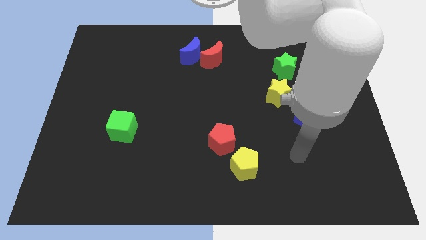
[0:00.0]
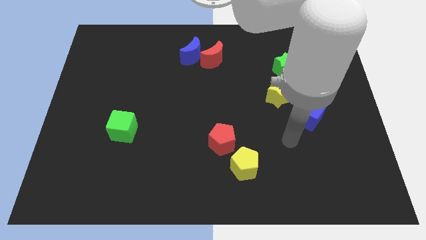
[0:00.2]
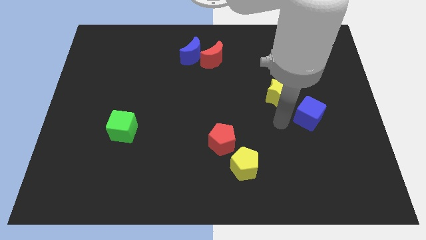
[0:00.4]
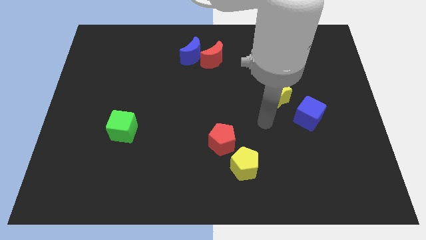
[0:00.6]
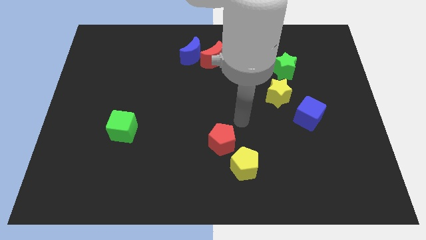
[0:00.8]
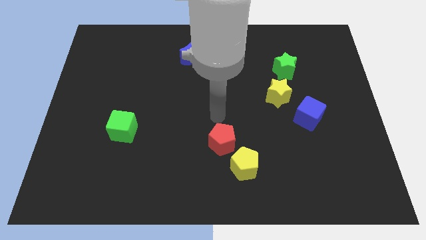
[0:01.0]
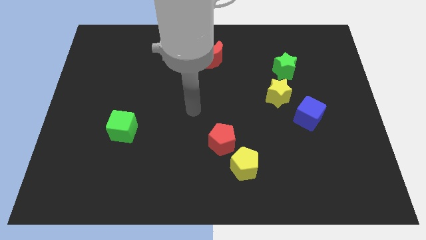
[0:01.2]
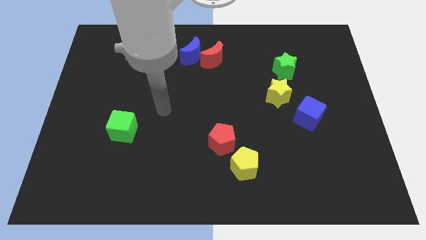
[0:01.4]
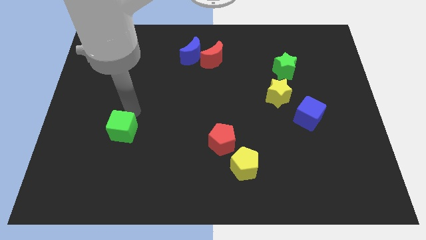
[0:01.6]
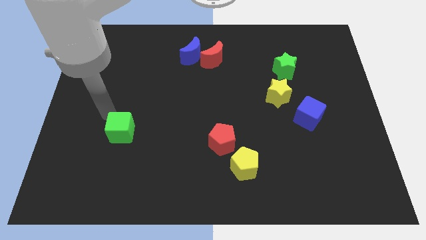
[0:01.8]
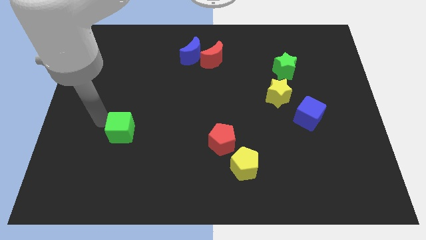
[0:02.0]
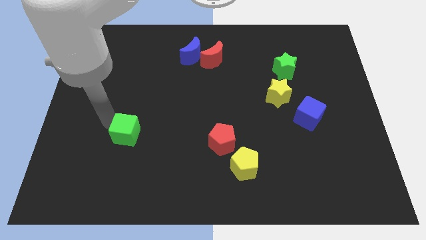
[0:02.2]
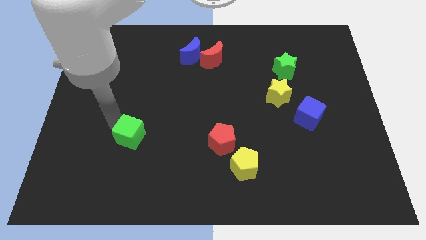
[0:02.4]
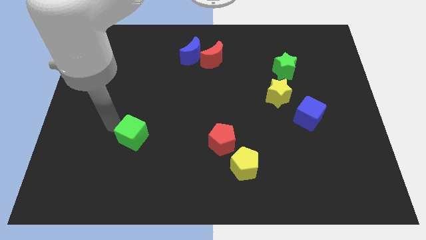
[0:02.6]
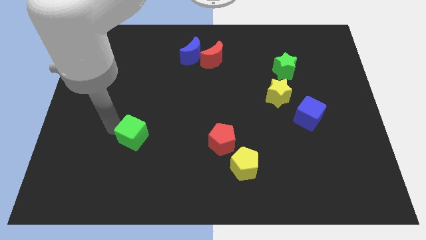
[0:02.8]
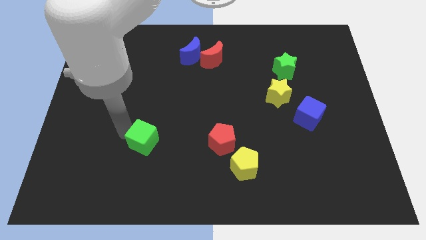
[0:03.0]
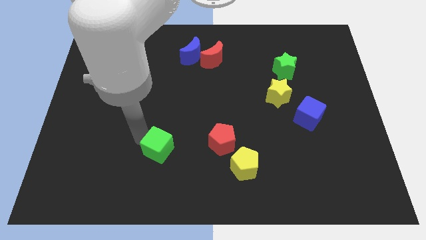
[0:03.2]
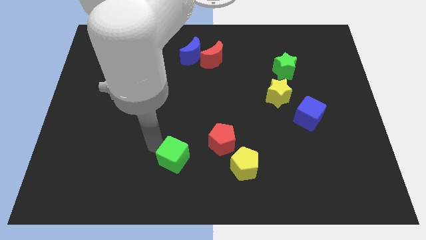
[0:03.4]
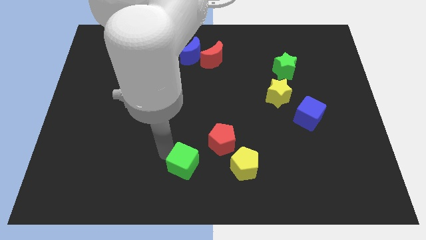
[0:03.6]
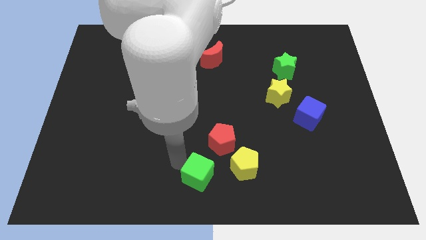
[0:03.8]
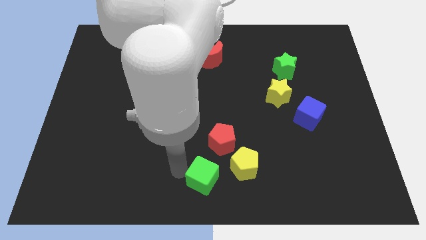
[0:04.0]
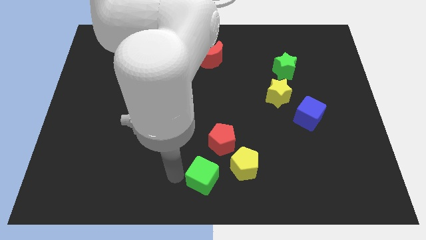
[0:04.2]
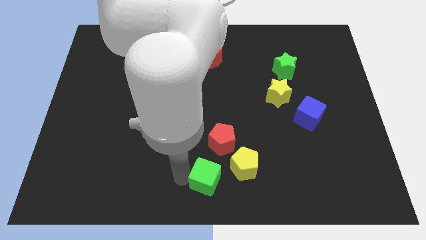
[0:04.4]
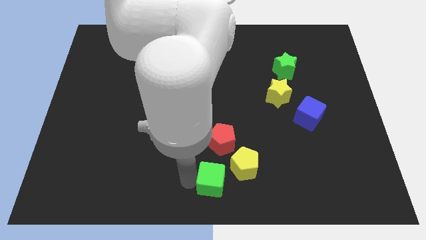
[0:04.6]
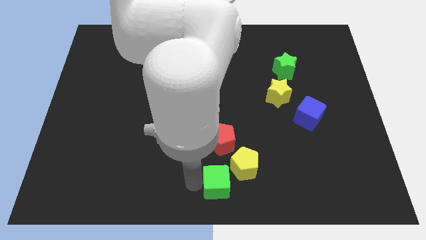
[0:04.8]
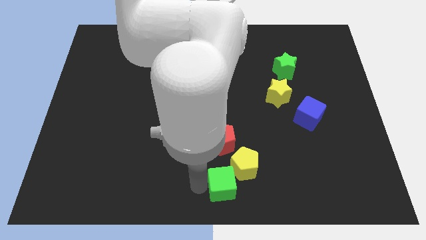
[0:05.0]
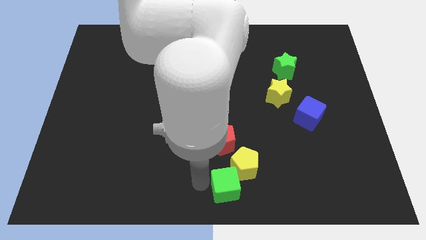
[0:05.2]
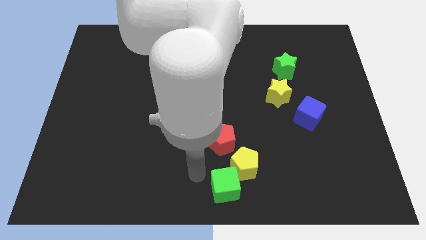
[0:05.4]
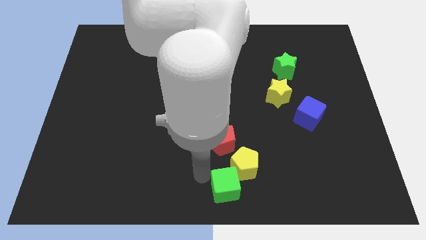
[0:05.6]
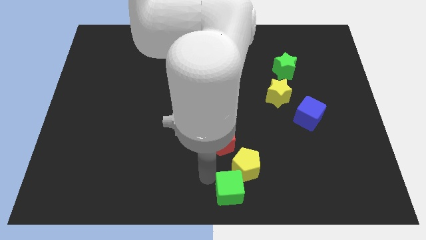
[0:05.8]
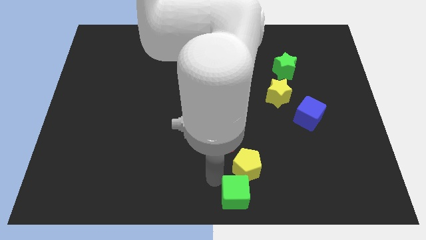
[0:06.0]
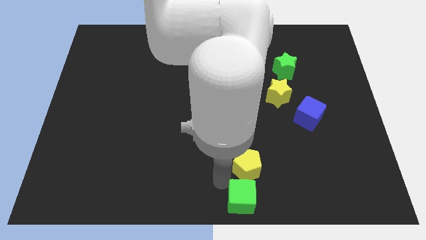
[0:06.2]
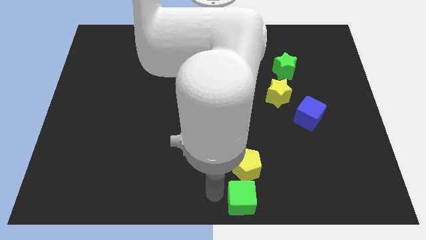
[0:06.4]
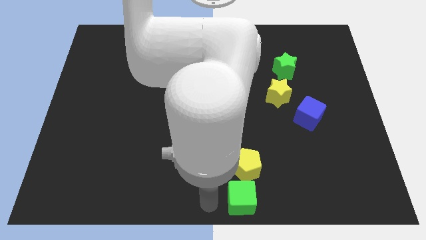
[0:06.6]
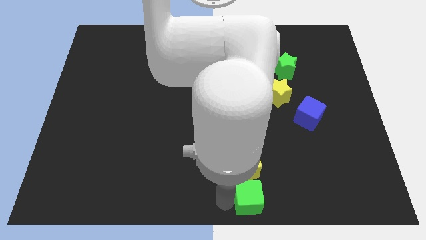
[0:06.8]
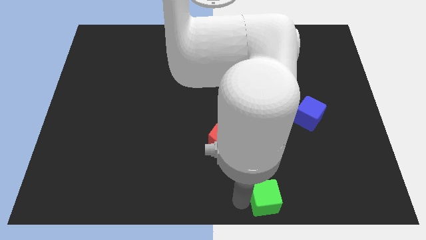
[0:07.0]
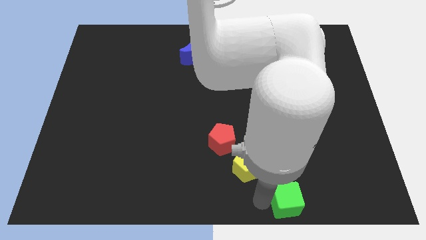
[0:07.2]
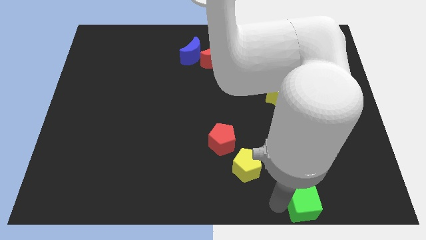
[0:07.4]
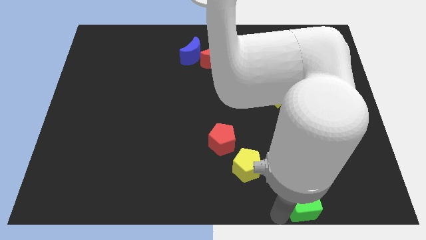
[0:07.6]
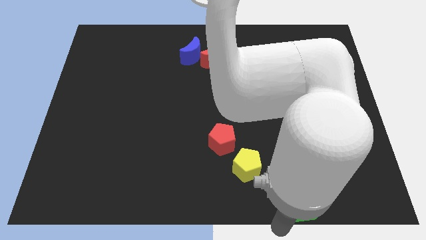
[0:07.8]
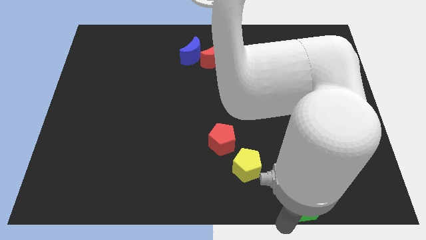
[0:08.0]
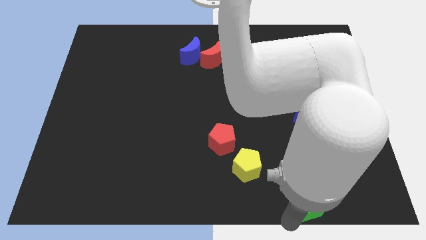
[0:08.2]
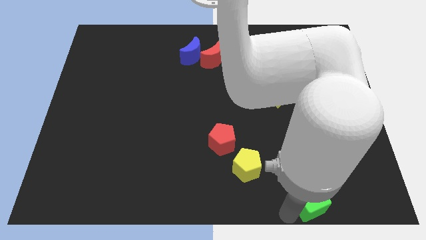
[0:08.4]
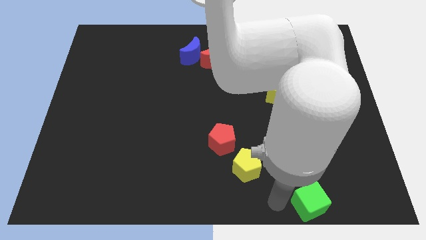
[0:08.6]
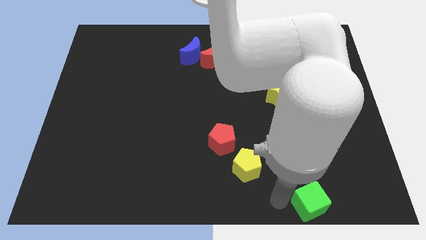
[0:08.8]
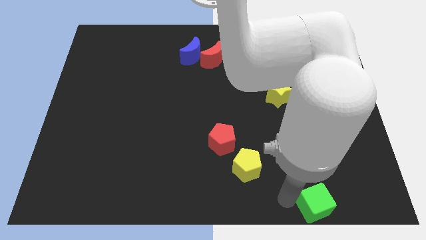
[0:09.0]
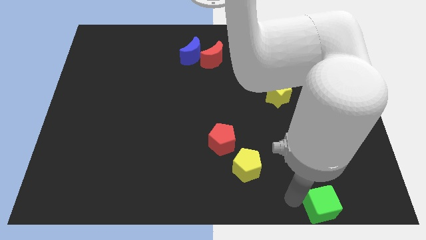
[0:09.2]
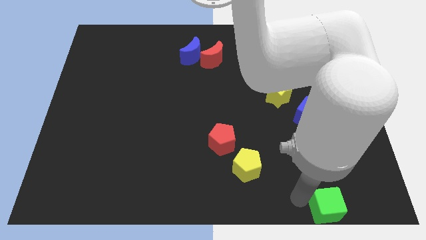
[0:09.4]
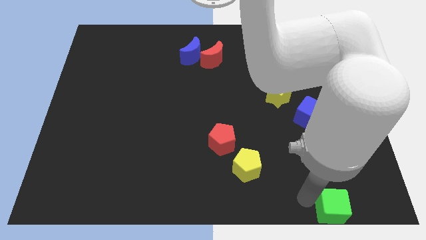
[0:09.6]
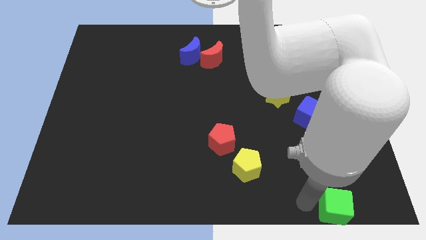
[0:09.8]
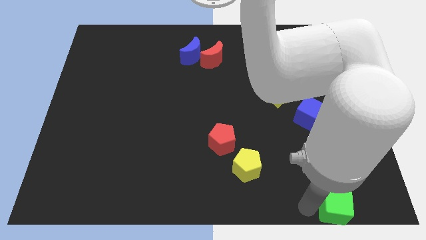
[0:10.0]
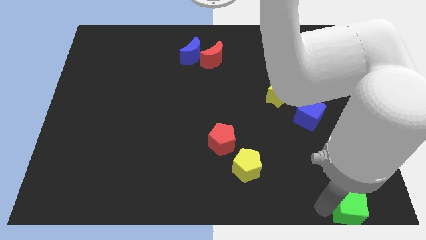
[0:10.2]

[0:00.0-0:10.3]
push the green cube to the lower right corner

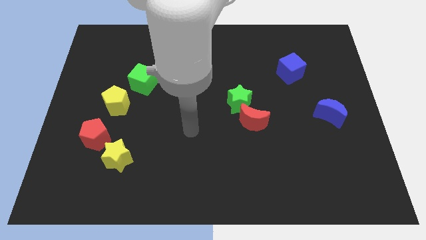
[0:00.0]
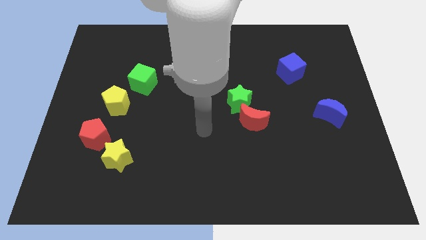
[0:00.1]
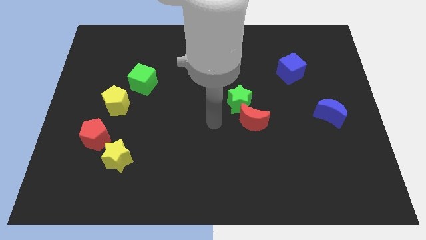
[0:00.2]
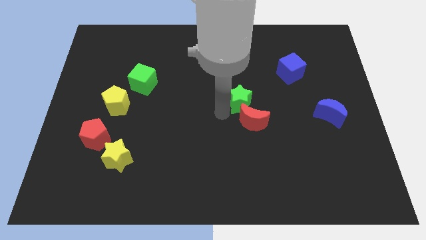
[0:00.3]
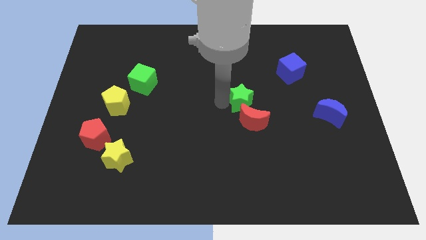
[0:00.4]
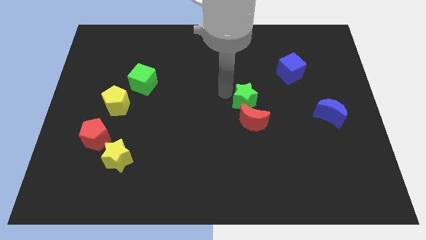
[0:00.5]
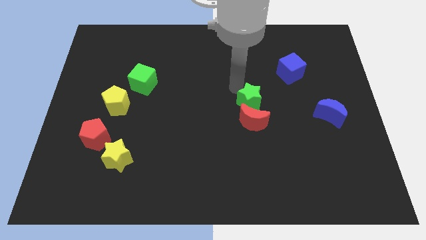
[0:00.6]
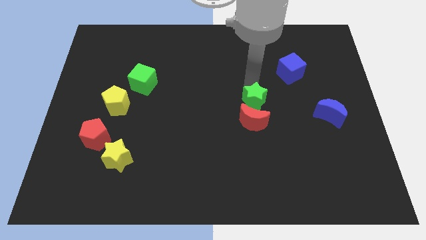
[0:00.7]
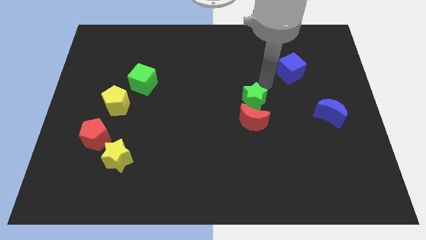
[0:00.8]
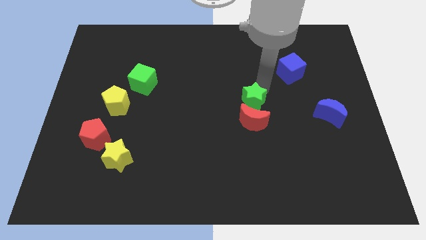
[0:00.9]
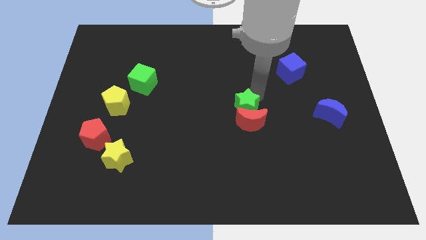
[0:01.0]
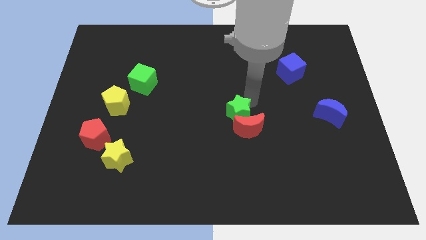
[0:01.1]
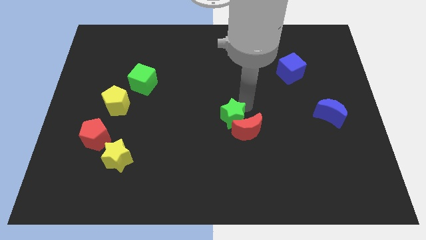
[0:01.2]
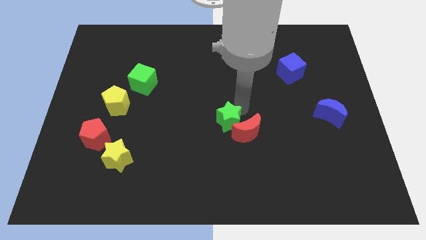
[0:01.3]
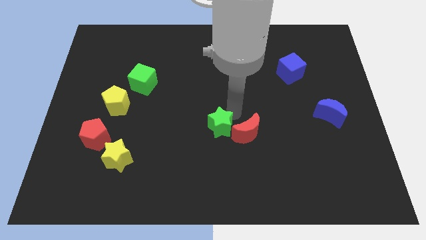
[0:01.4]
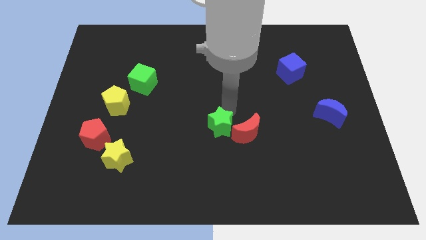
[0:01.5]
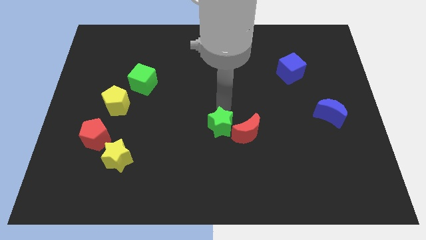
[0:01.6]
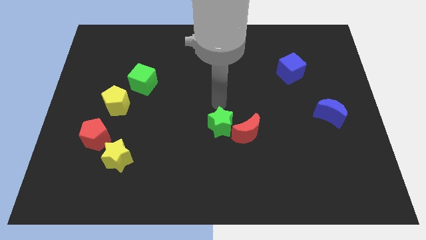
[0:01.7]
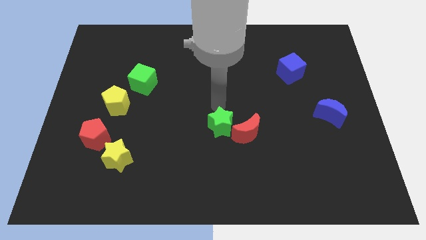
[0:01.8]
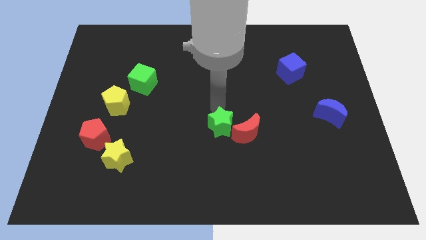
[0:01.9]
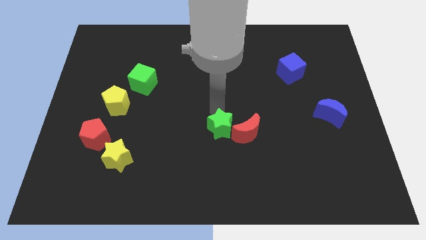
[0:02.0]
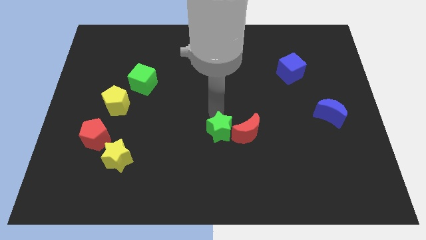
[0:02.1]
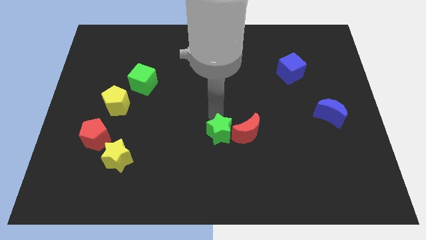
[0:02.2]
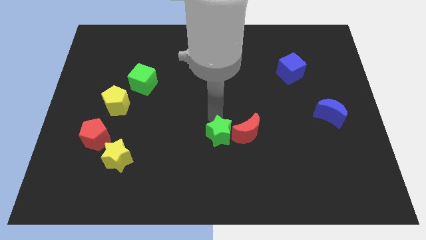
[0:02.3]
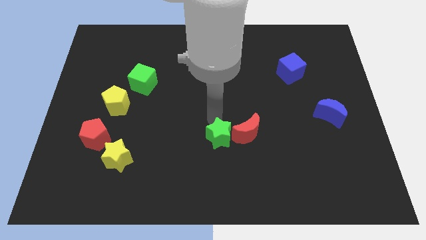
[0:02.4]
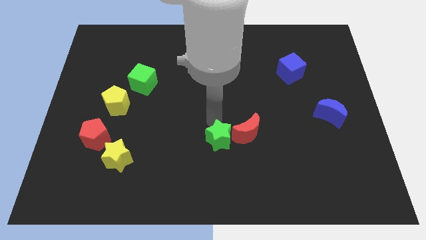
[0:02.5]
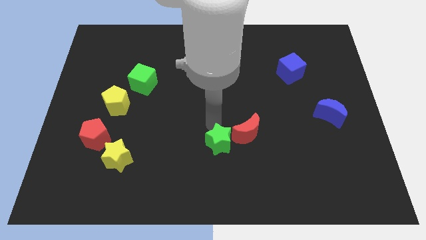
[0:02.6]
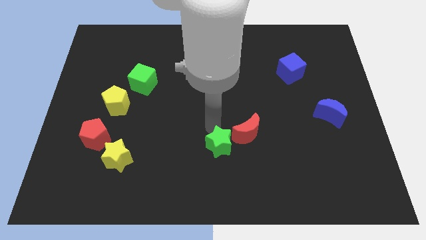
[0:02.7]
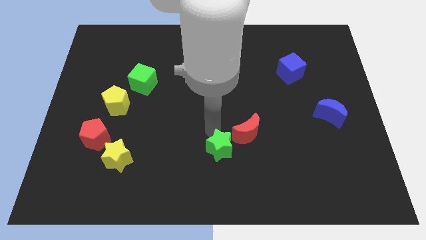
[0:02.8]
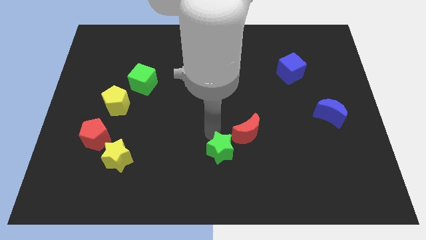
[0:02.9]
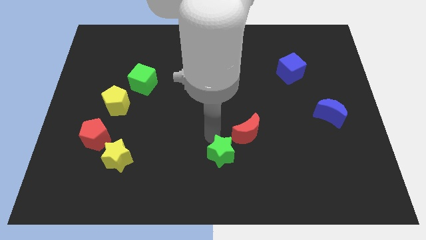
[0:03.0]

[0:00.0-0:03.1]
put the green star to the bottom
